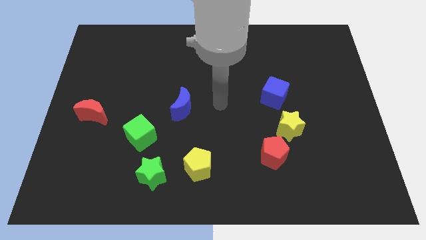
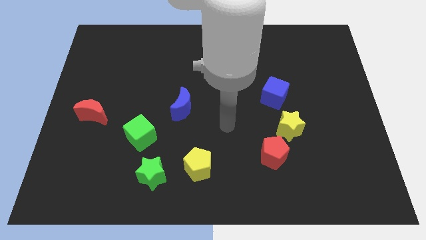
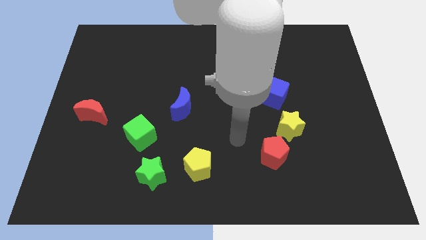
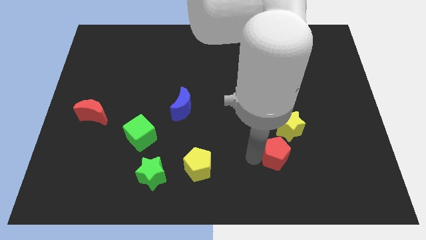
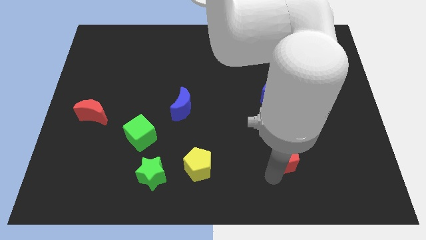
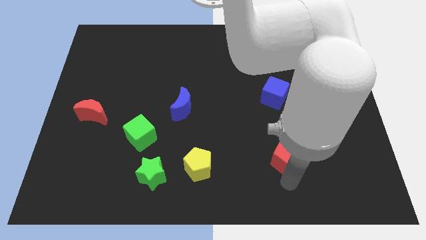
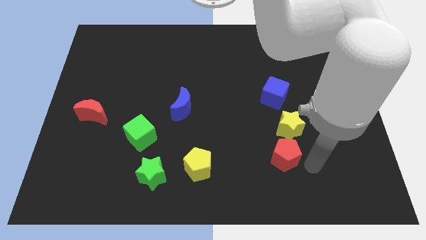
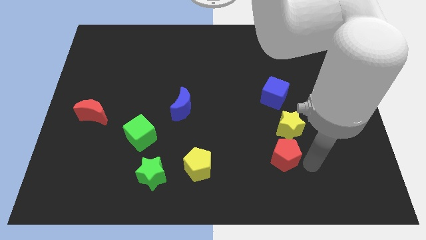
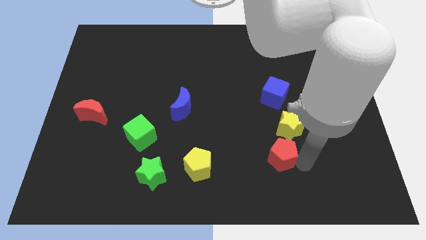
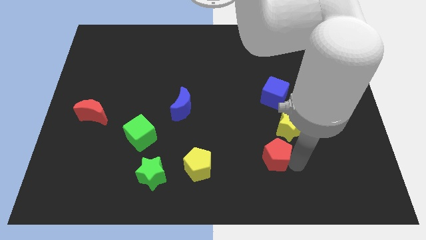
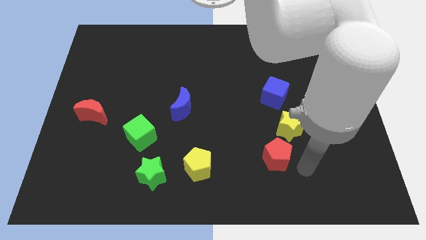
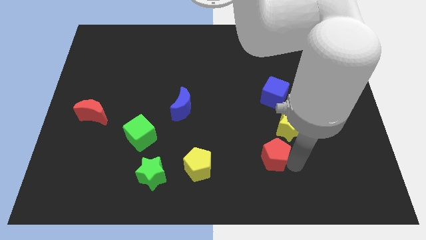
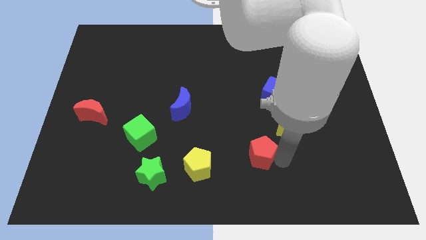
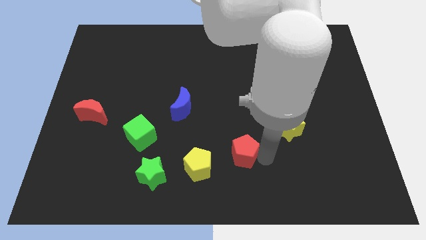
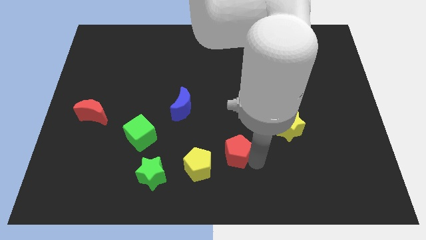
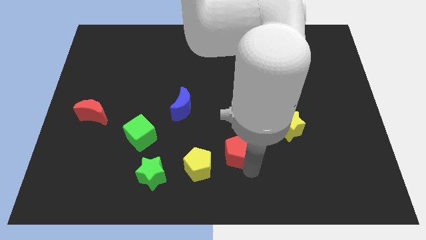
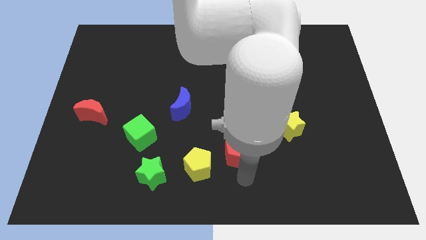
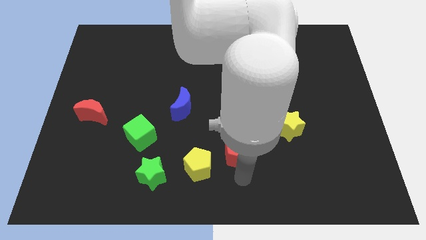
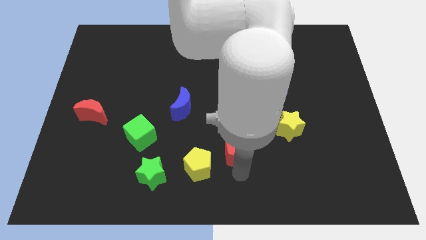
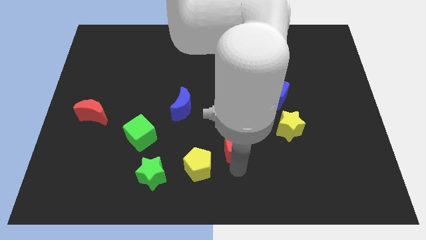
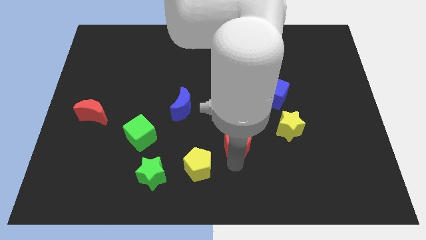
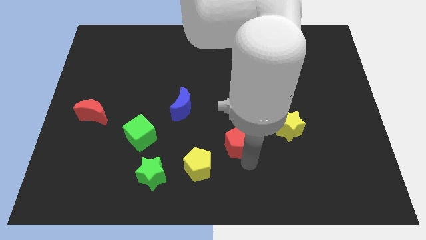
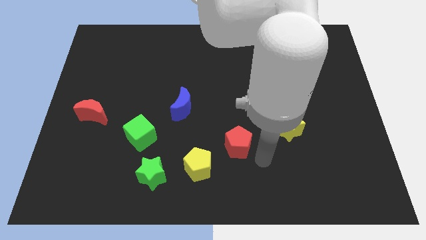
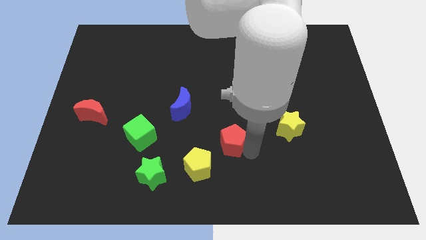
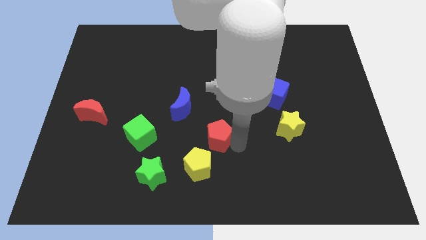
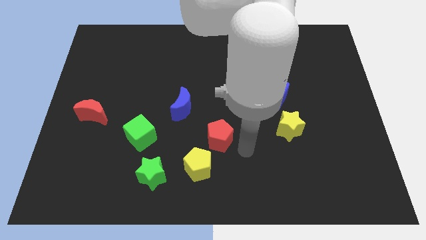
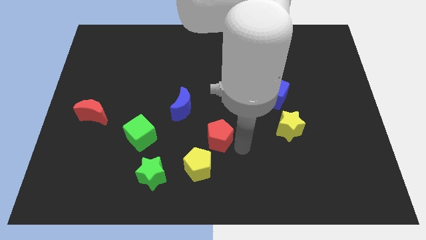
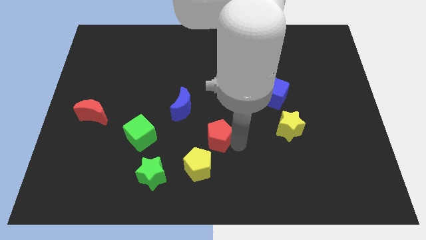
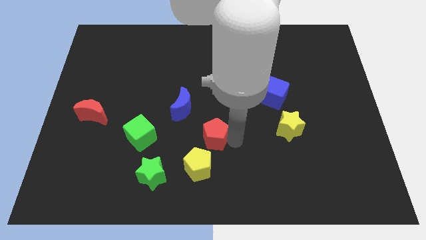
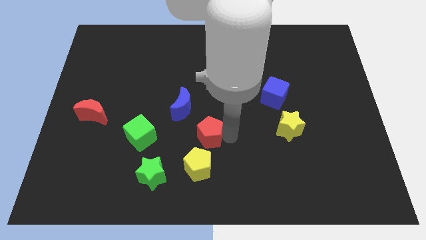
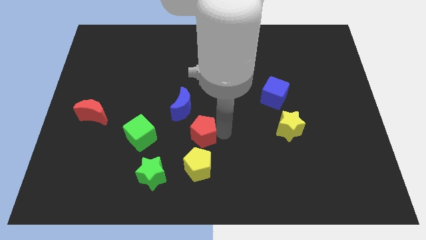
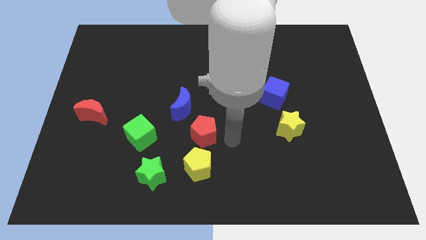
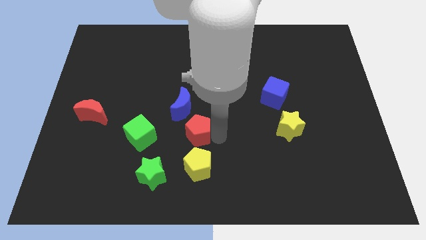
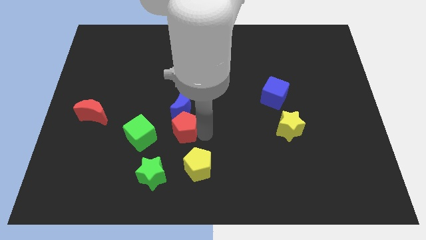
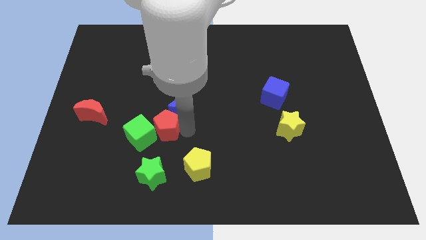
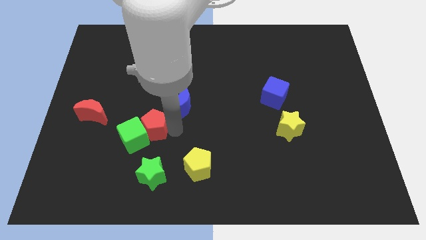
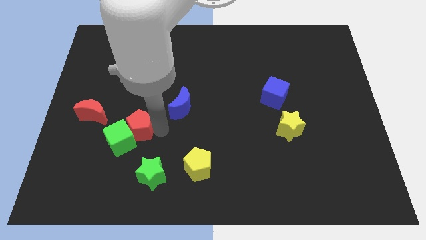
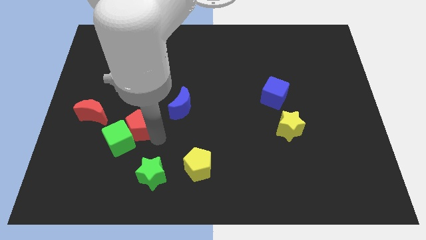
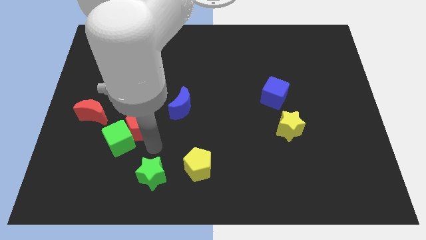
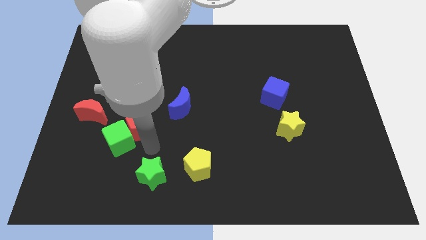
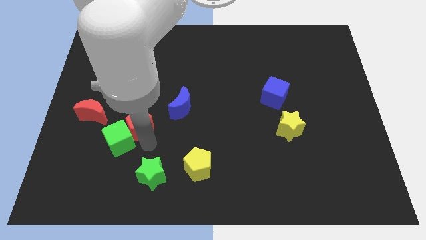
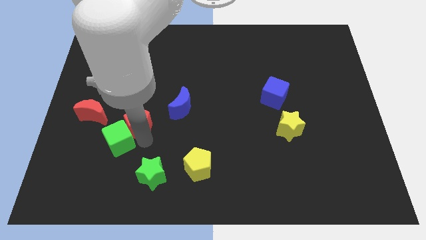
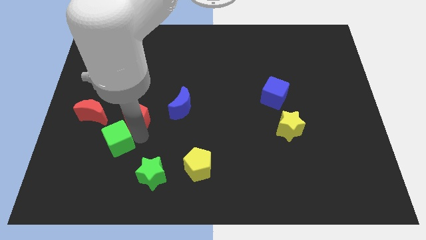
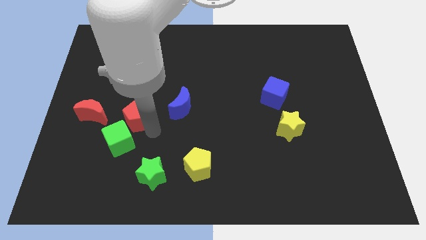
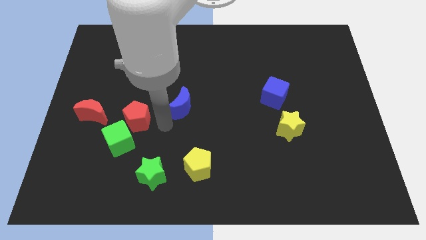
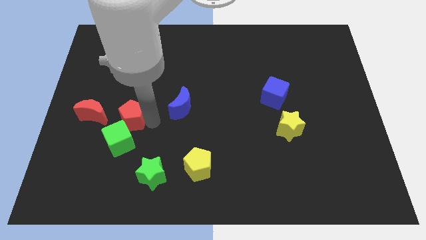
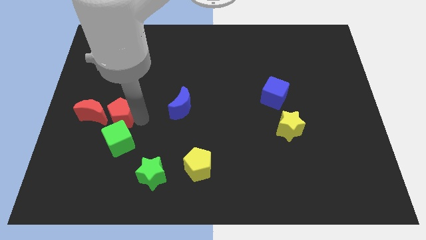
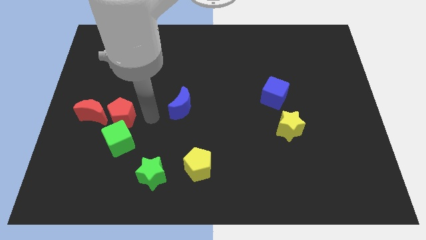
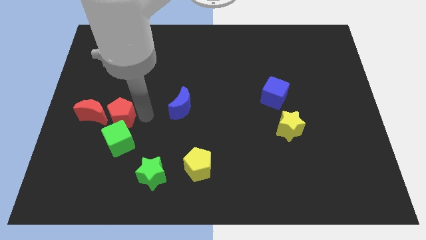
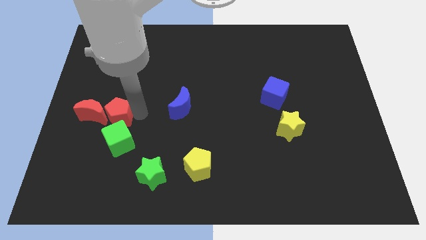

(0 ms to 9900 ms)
move the red pentagon to the red moon

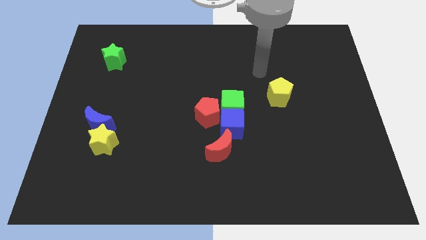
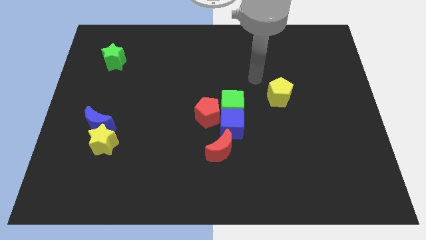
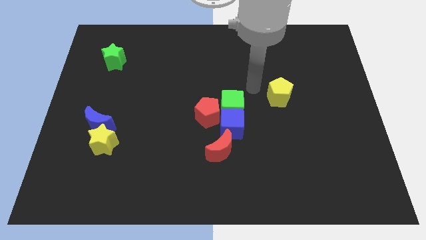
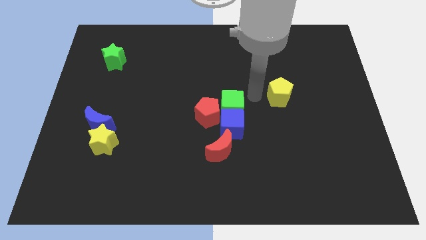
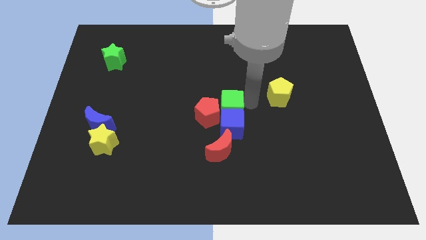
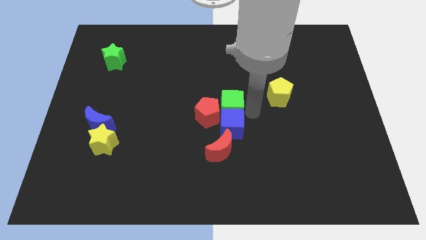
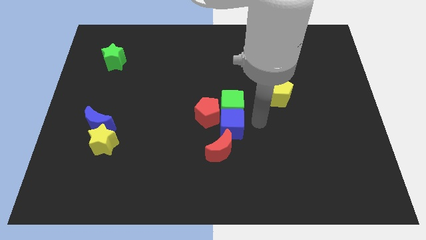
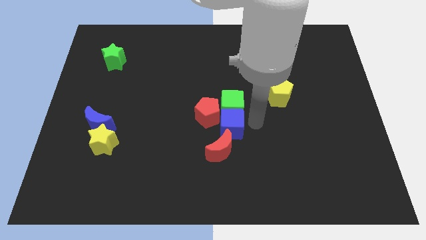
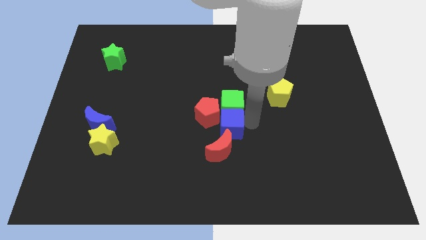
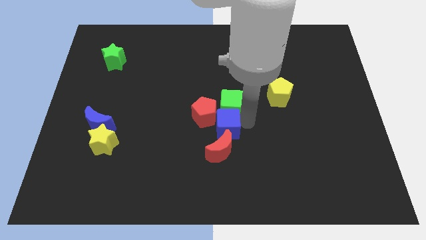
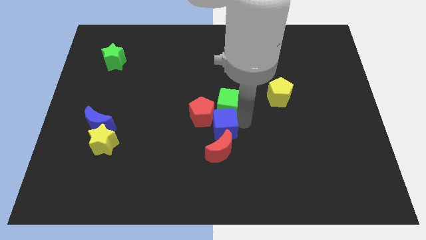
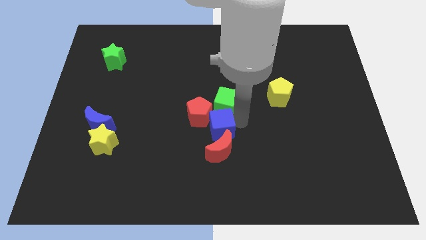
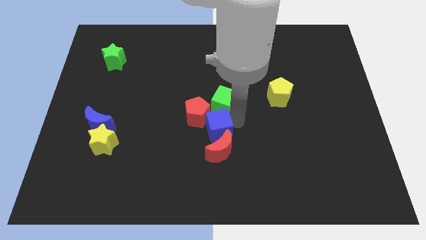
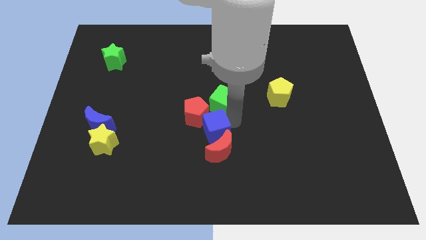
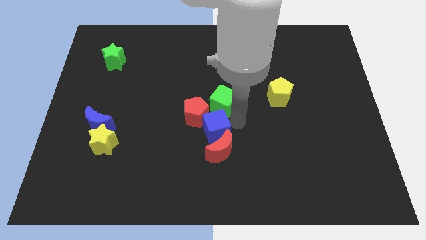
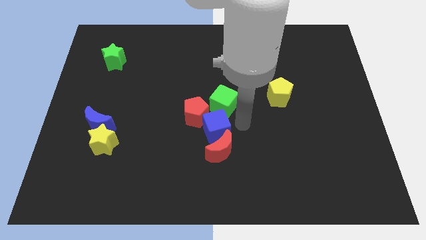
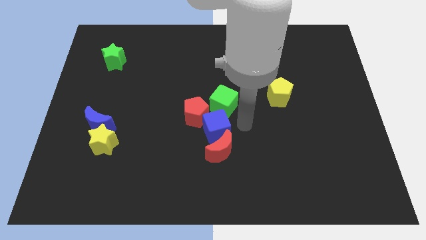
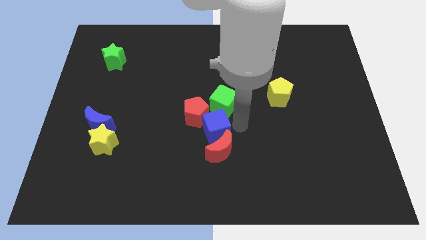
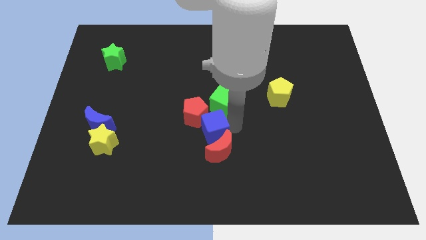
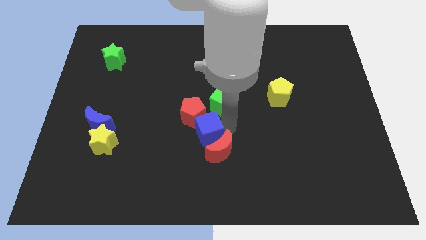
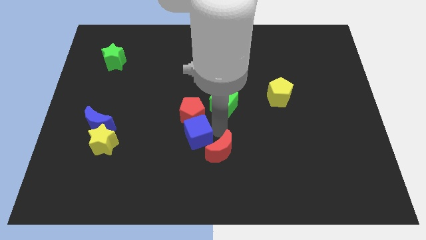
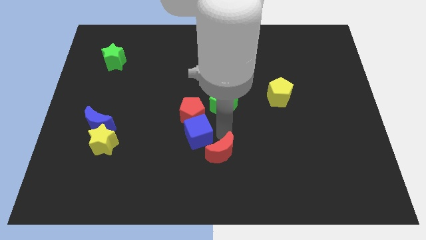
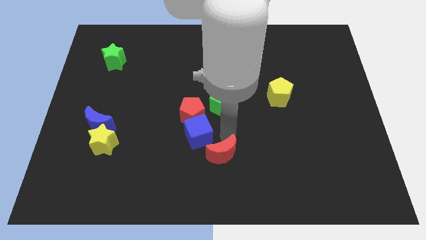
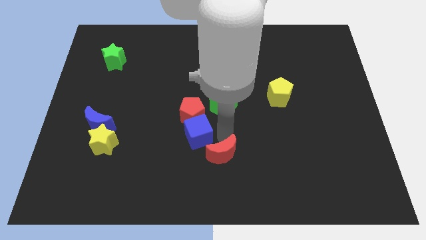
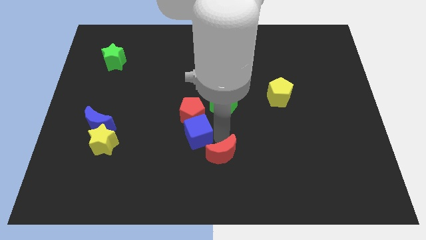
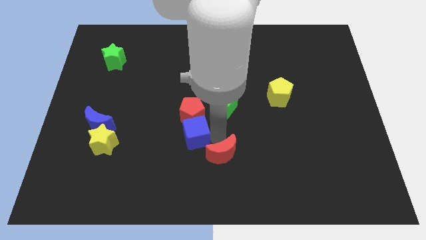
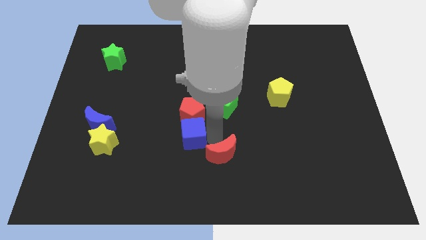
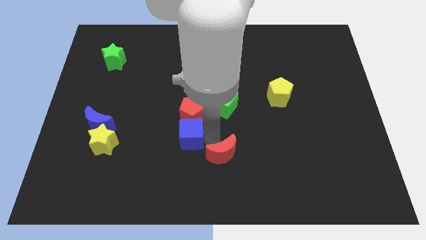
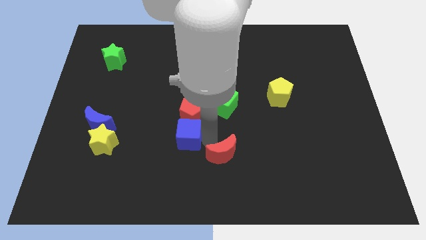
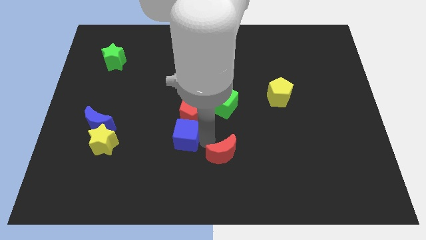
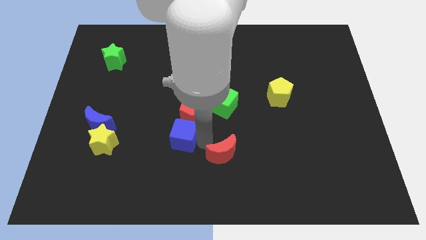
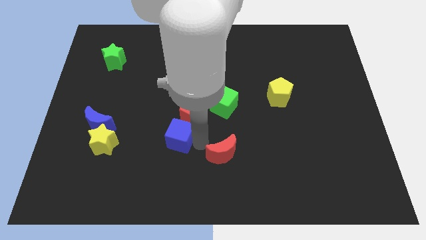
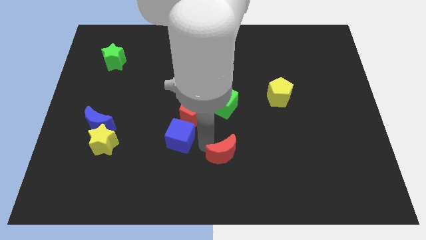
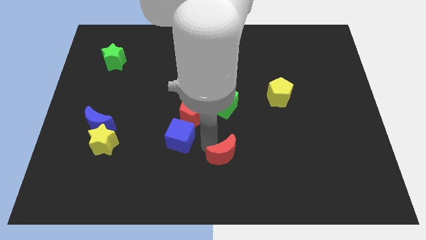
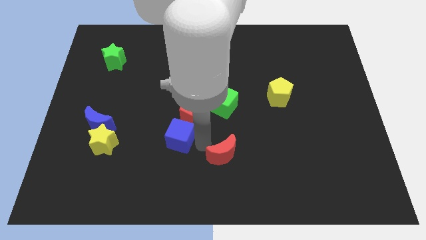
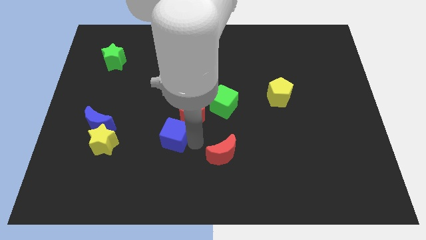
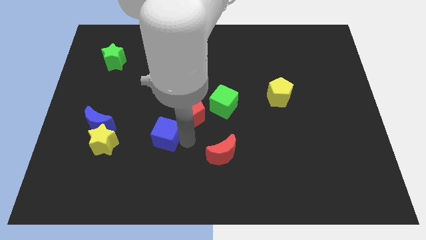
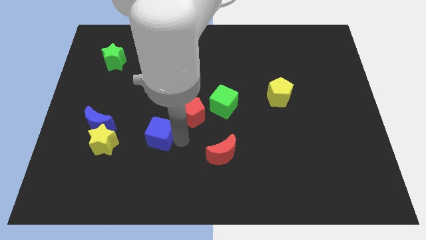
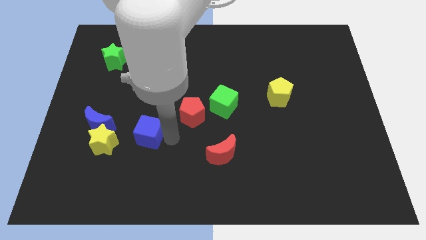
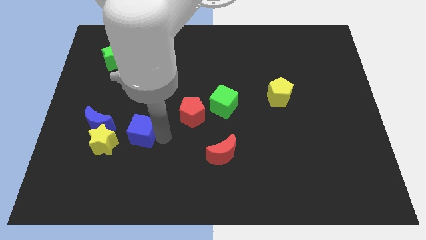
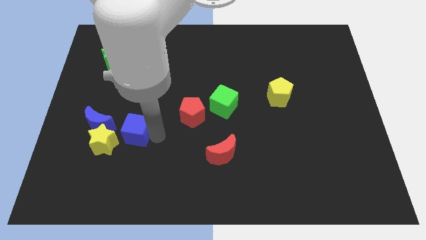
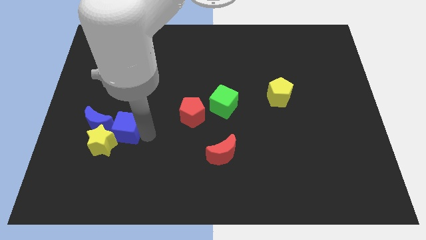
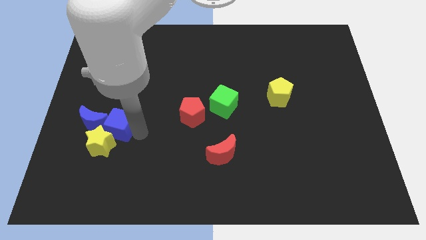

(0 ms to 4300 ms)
push the blue cube towards the blue moon
